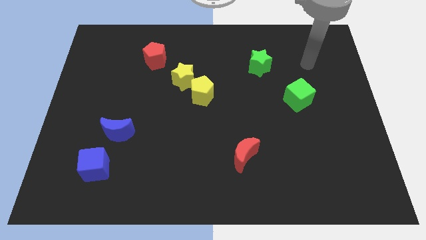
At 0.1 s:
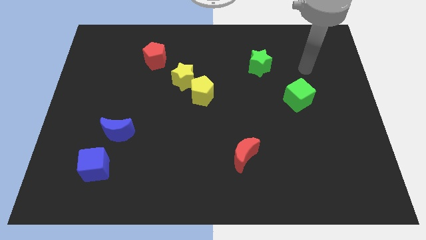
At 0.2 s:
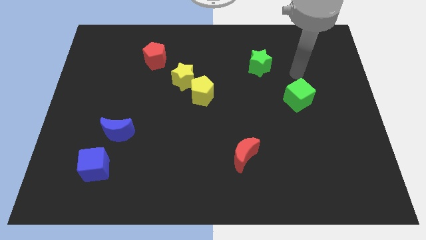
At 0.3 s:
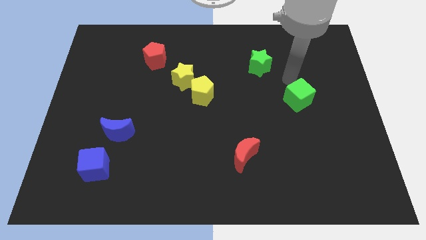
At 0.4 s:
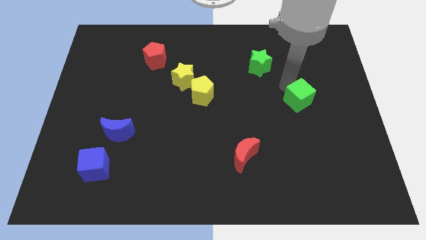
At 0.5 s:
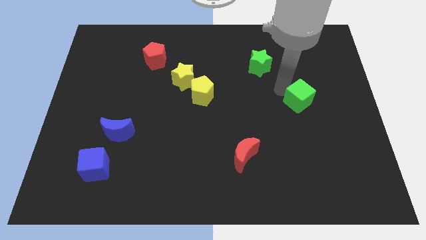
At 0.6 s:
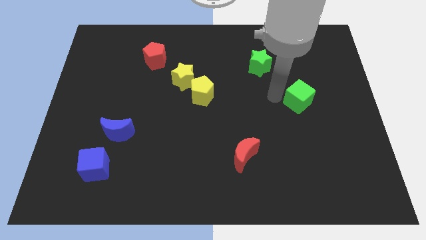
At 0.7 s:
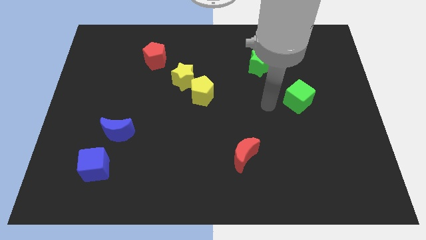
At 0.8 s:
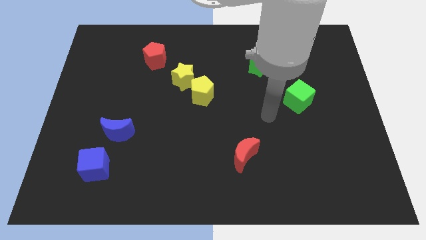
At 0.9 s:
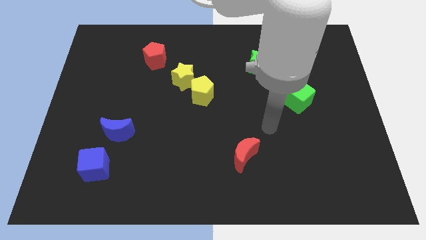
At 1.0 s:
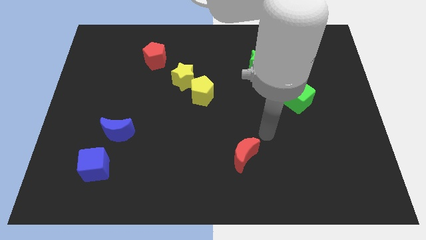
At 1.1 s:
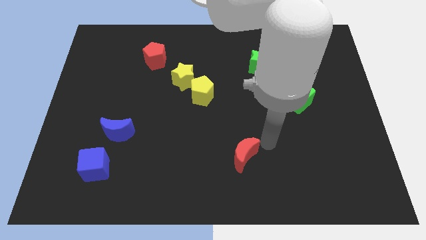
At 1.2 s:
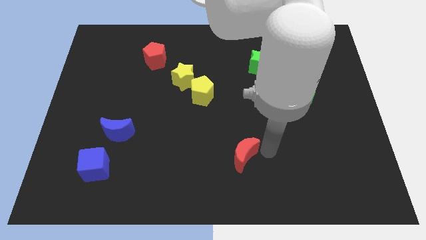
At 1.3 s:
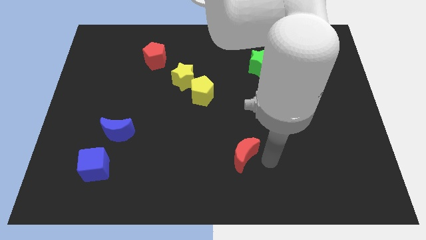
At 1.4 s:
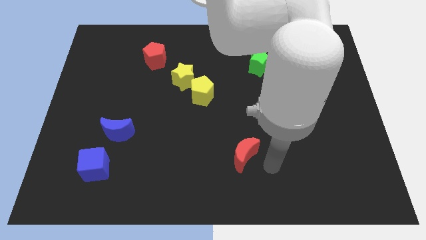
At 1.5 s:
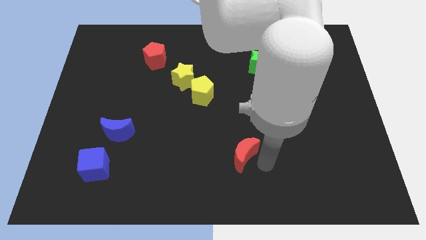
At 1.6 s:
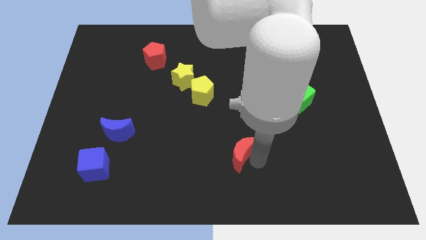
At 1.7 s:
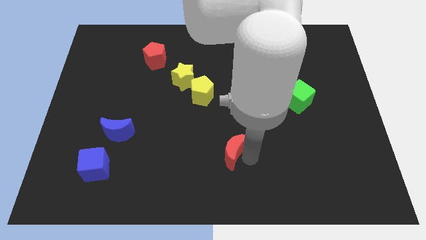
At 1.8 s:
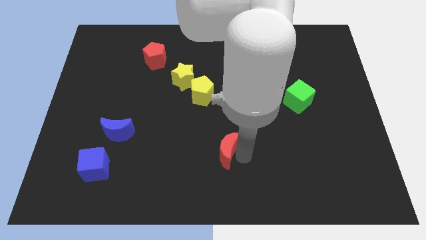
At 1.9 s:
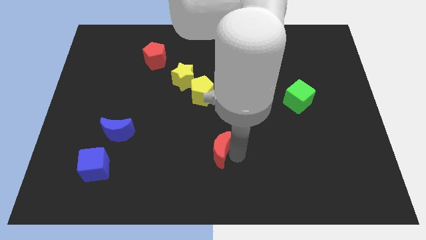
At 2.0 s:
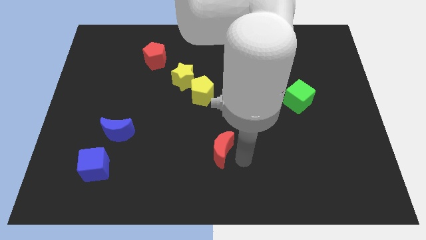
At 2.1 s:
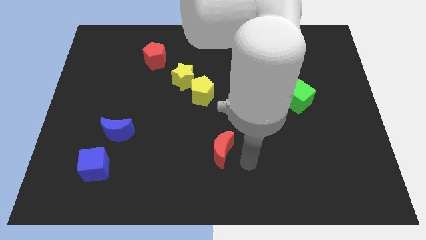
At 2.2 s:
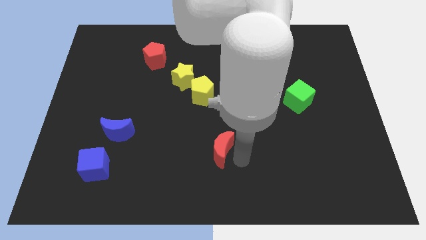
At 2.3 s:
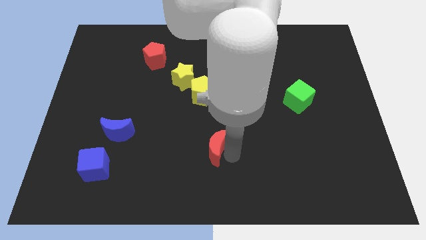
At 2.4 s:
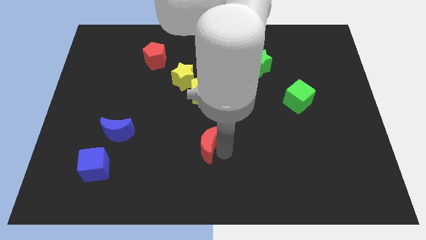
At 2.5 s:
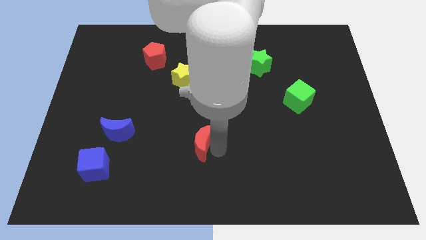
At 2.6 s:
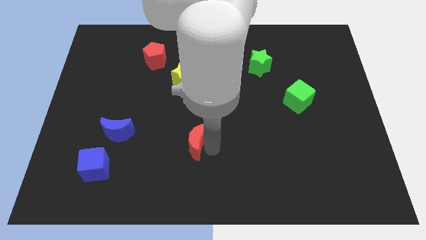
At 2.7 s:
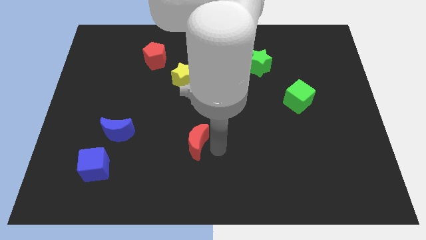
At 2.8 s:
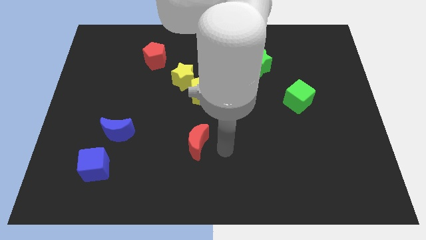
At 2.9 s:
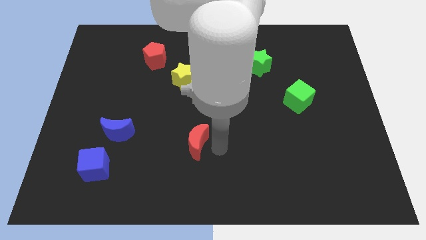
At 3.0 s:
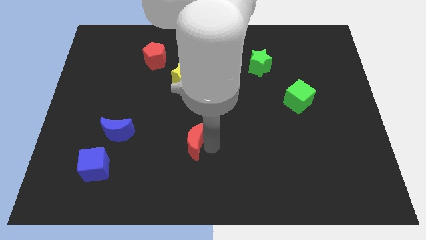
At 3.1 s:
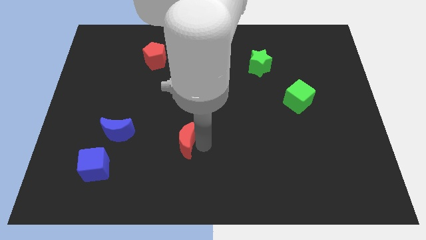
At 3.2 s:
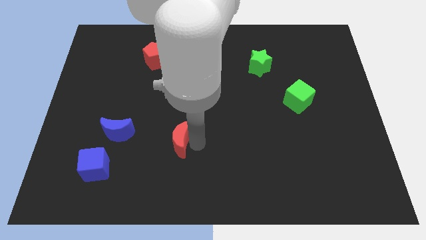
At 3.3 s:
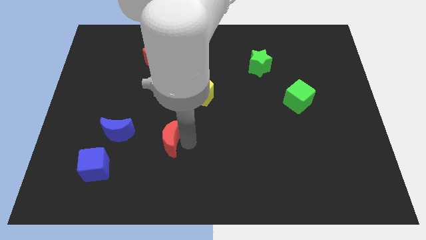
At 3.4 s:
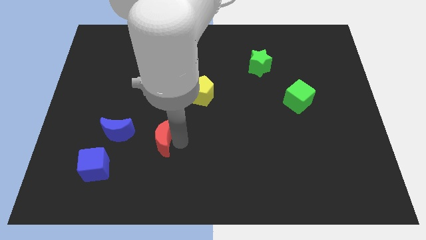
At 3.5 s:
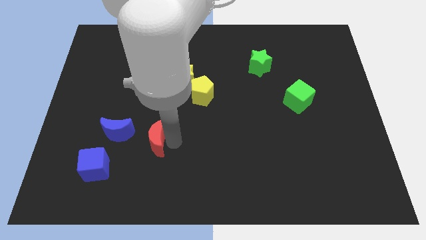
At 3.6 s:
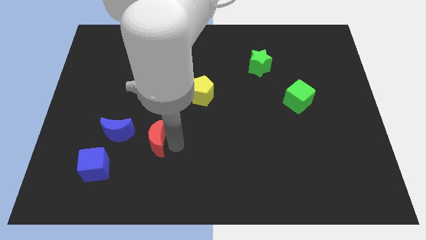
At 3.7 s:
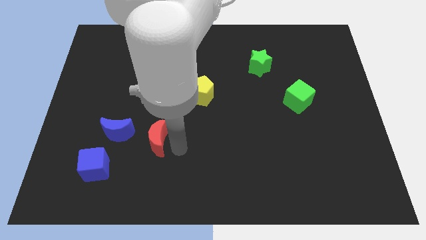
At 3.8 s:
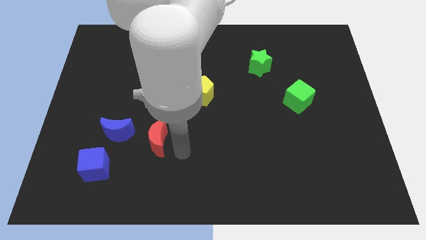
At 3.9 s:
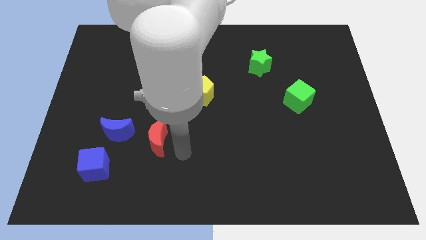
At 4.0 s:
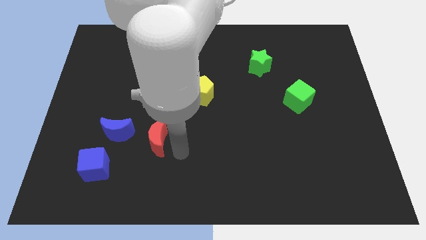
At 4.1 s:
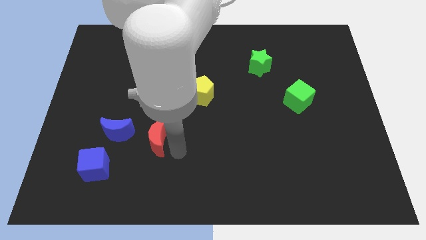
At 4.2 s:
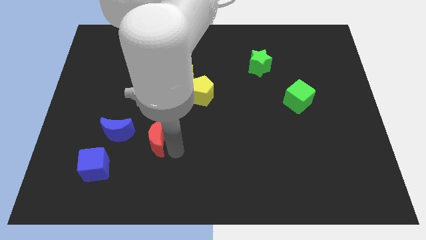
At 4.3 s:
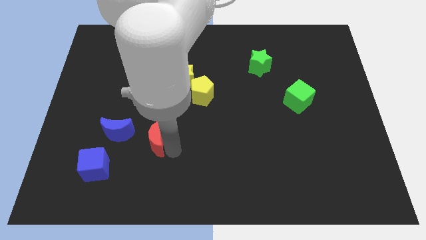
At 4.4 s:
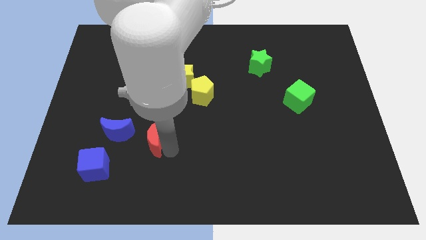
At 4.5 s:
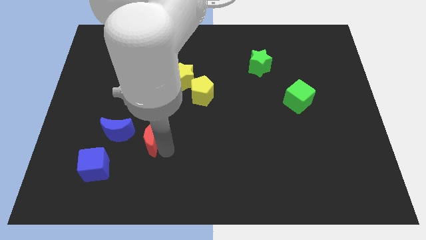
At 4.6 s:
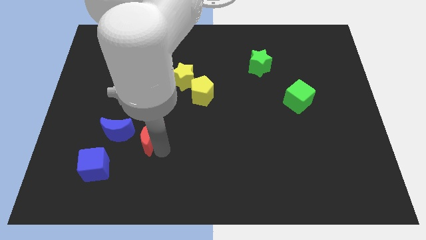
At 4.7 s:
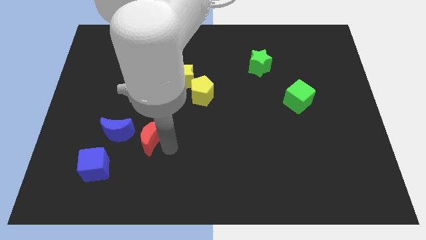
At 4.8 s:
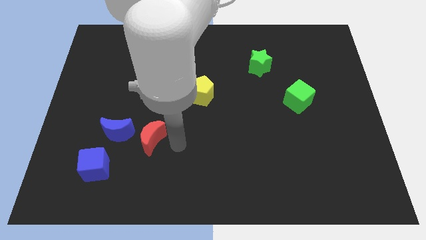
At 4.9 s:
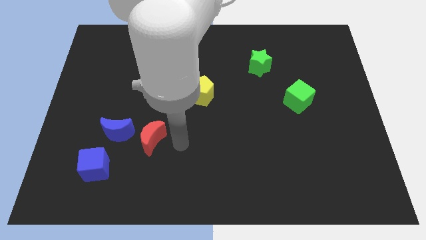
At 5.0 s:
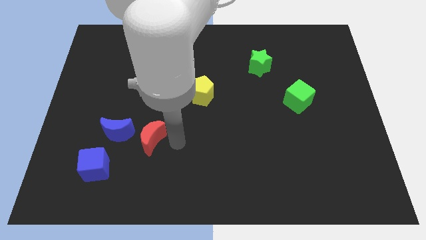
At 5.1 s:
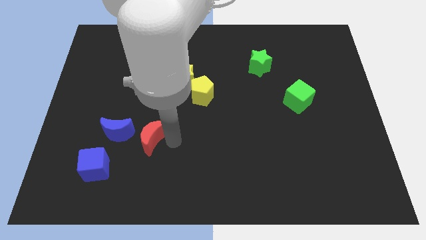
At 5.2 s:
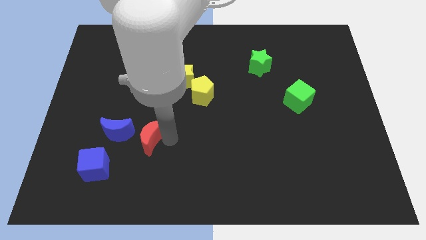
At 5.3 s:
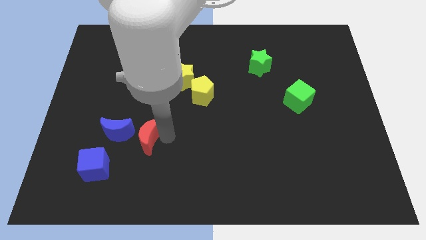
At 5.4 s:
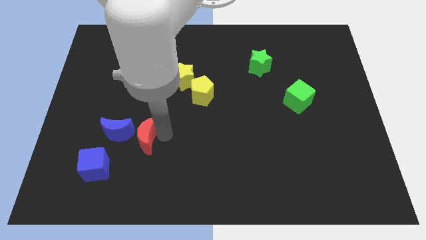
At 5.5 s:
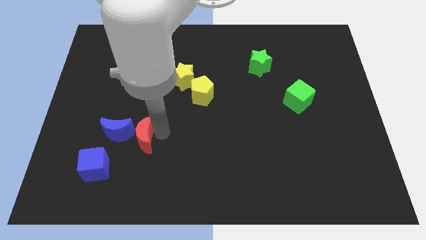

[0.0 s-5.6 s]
put the red moon close to the blue moon

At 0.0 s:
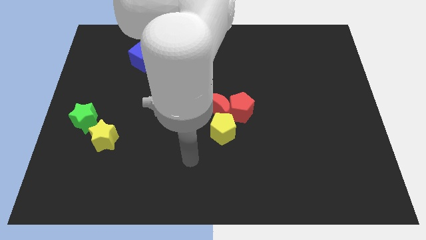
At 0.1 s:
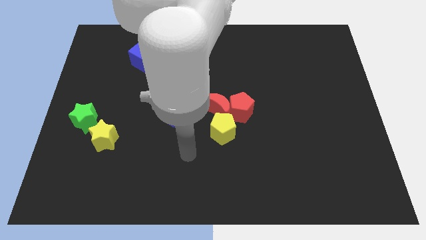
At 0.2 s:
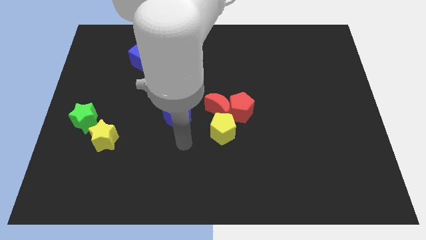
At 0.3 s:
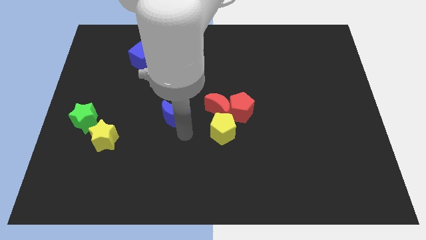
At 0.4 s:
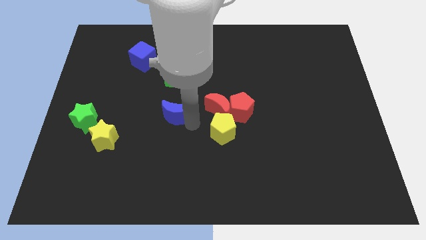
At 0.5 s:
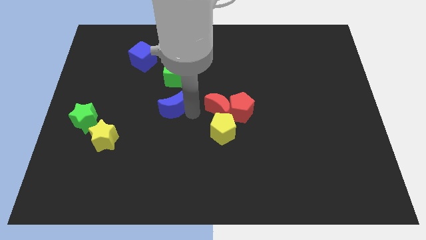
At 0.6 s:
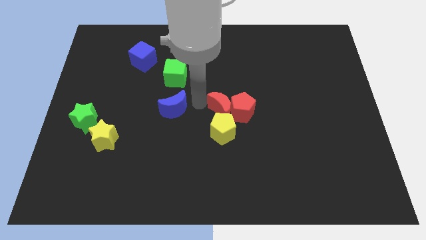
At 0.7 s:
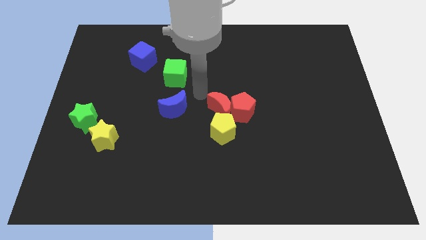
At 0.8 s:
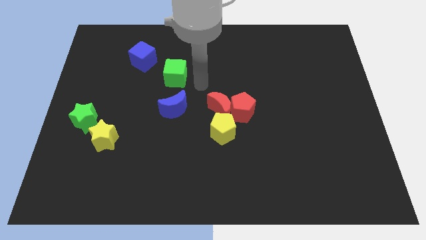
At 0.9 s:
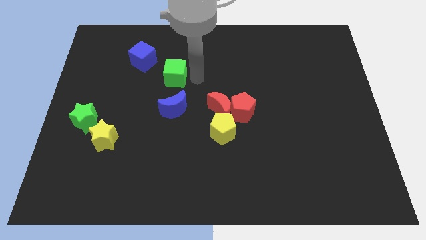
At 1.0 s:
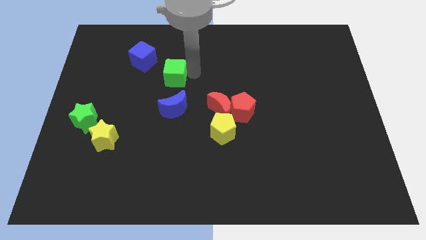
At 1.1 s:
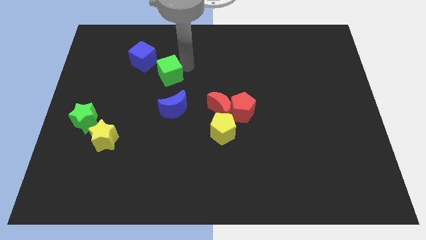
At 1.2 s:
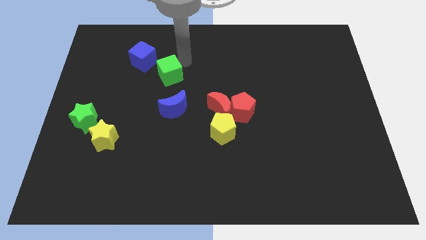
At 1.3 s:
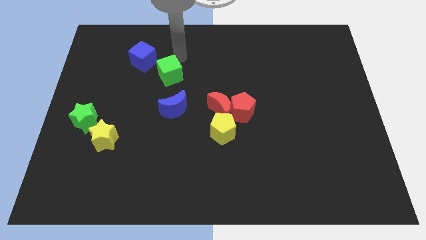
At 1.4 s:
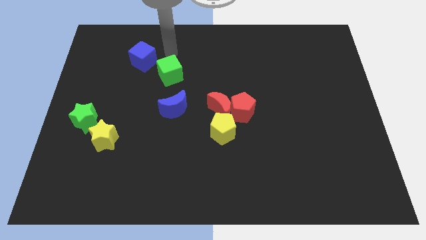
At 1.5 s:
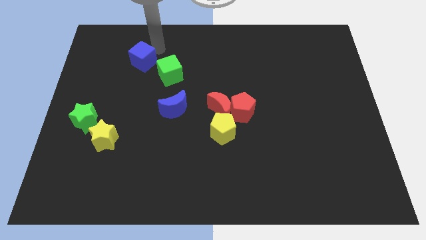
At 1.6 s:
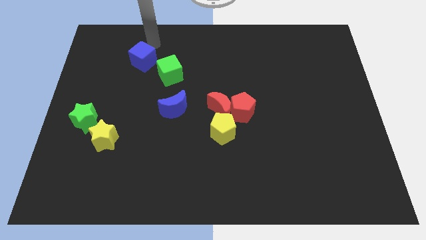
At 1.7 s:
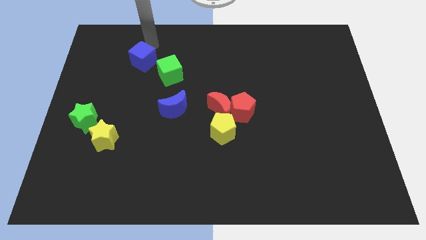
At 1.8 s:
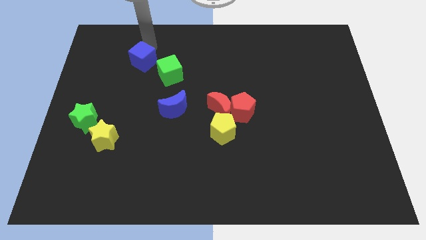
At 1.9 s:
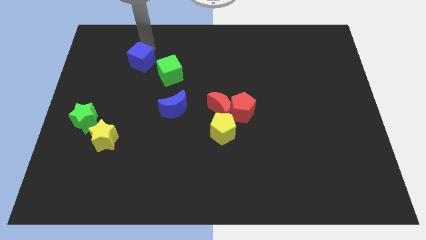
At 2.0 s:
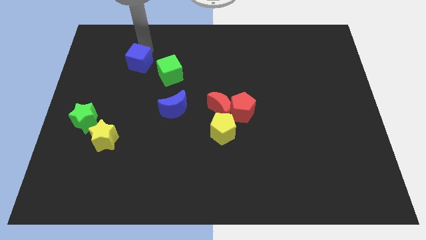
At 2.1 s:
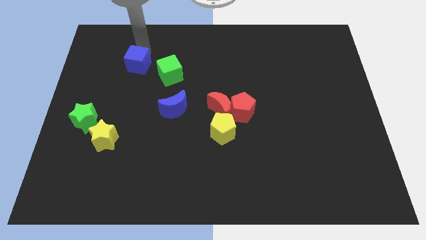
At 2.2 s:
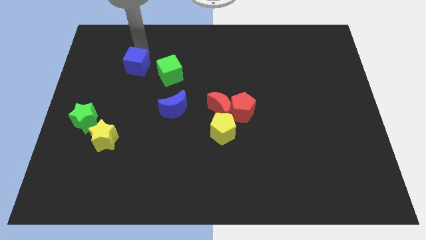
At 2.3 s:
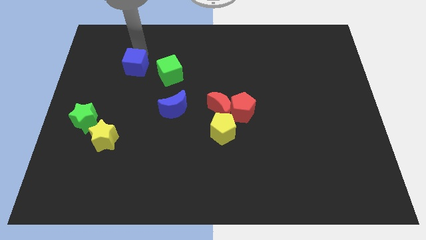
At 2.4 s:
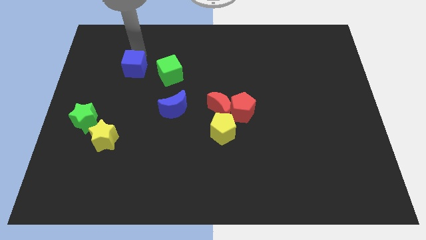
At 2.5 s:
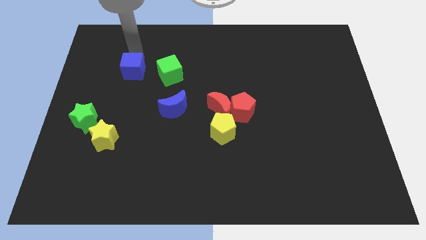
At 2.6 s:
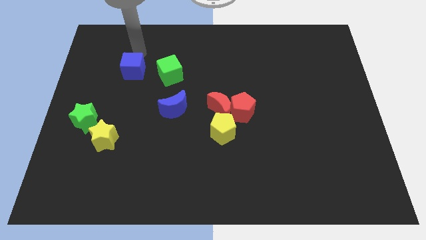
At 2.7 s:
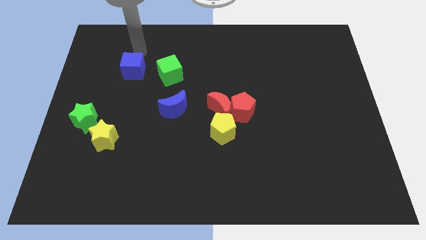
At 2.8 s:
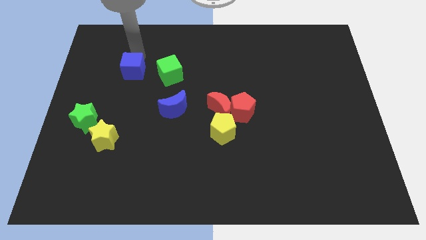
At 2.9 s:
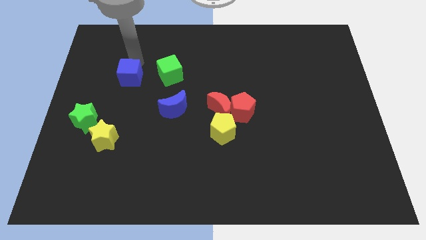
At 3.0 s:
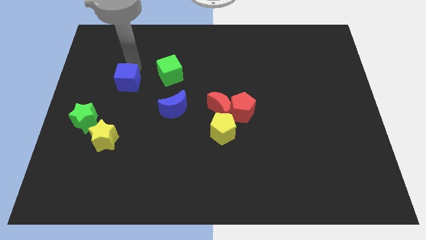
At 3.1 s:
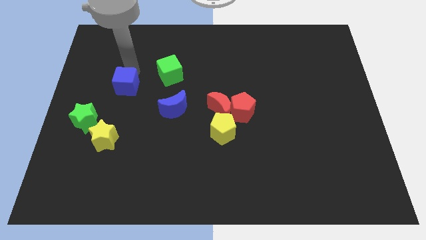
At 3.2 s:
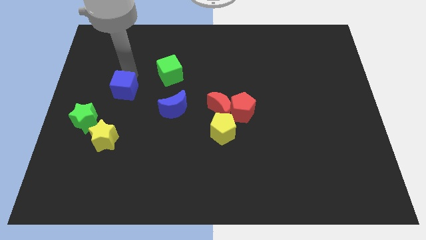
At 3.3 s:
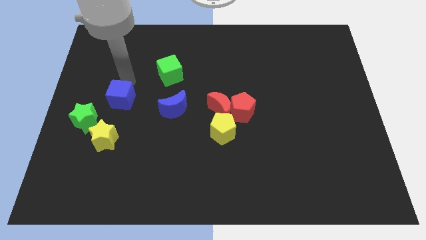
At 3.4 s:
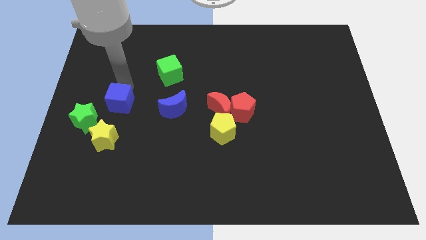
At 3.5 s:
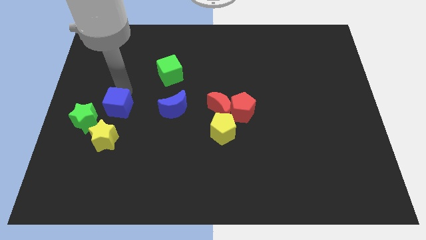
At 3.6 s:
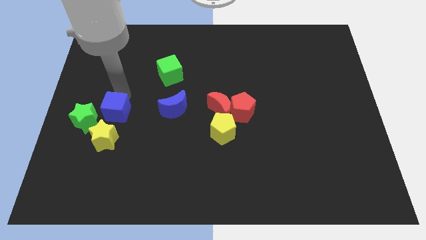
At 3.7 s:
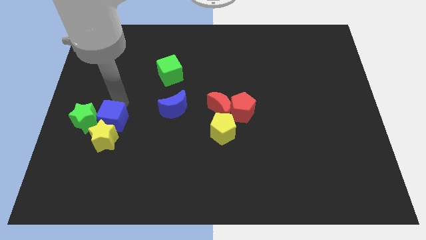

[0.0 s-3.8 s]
push the blue cube close to the yellow star
